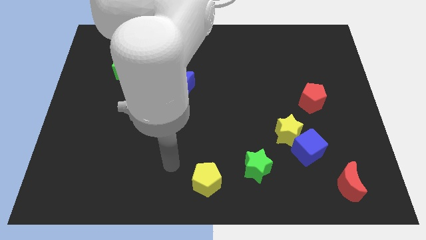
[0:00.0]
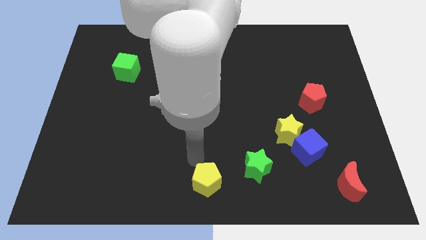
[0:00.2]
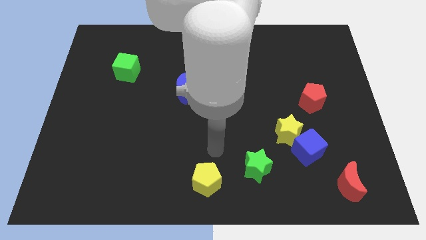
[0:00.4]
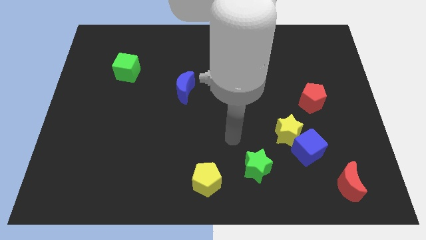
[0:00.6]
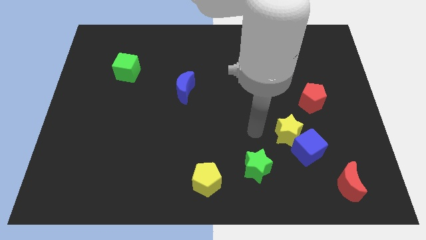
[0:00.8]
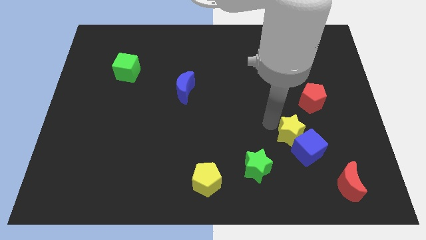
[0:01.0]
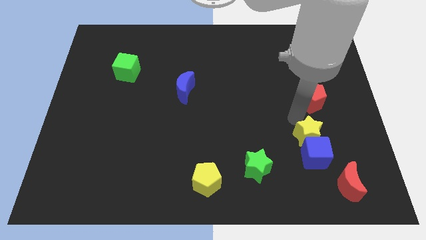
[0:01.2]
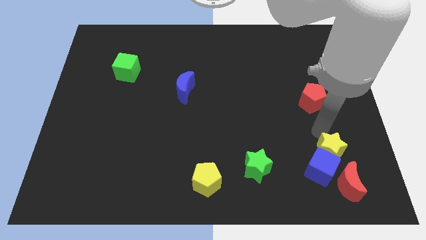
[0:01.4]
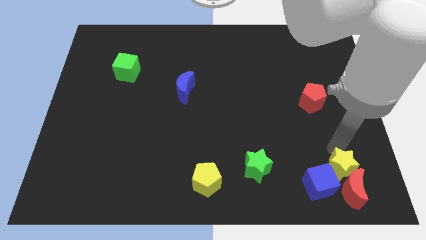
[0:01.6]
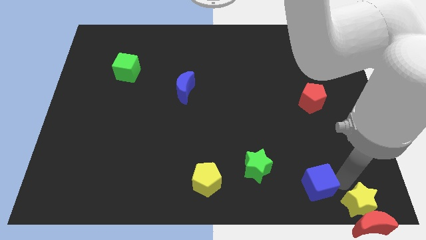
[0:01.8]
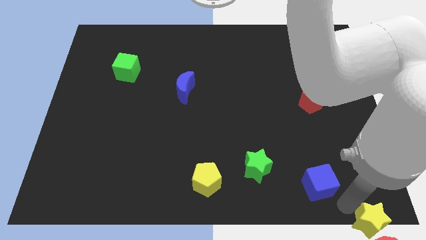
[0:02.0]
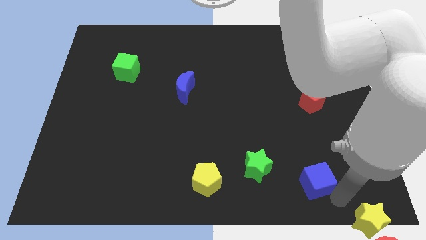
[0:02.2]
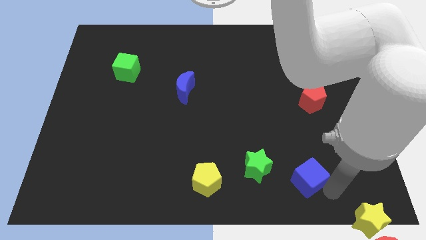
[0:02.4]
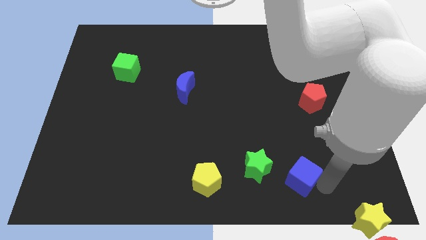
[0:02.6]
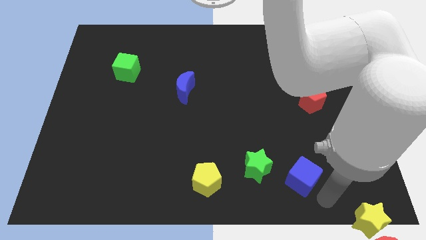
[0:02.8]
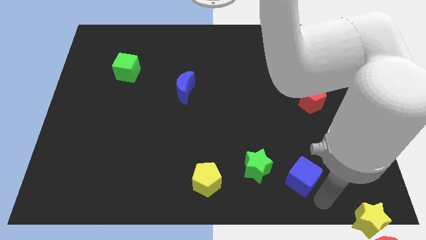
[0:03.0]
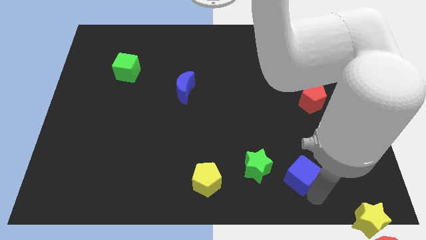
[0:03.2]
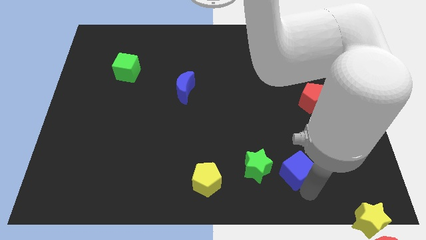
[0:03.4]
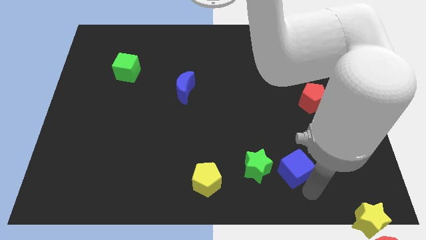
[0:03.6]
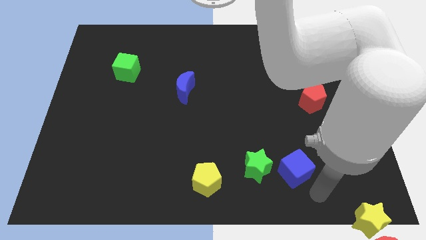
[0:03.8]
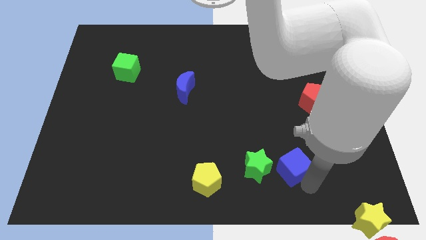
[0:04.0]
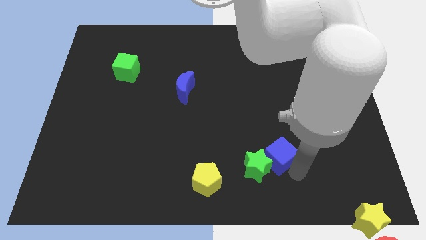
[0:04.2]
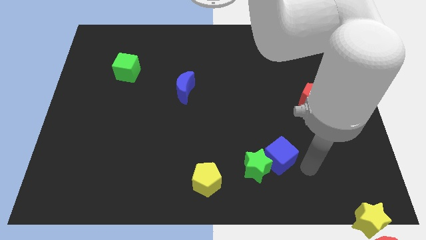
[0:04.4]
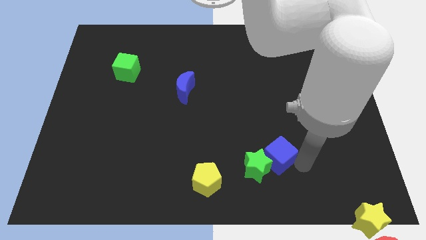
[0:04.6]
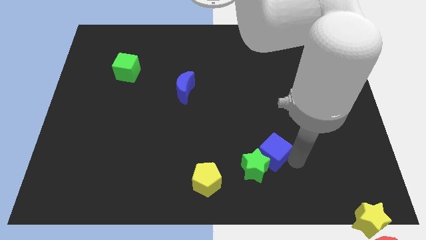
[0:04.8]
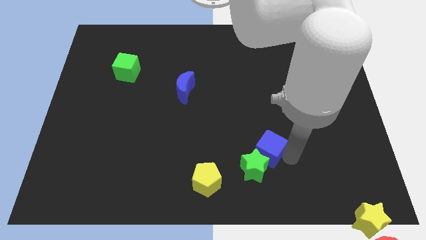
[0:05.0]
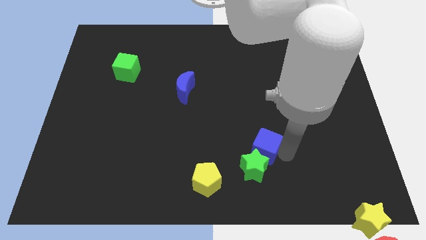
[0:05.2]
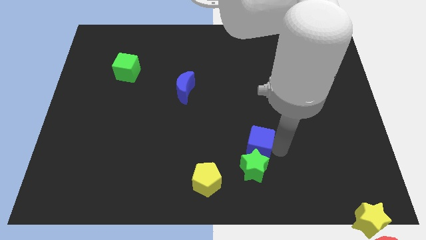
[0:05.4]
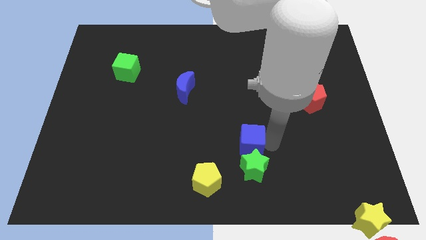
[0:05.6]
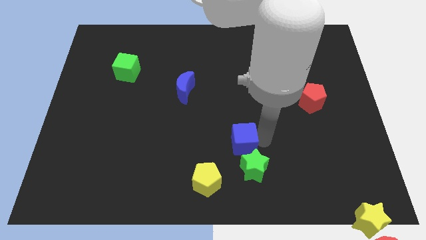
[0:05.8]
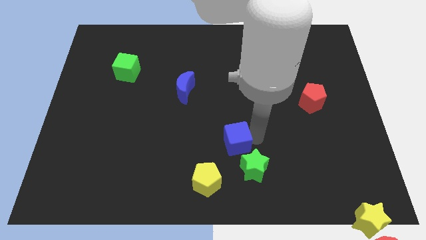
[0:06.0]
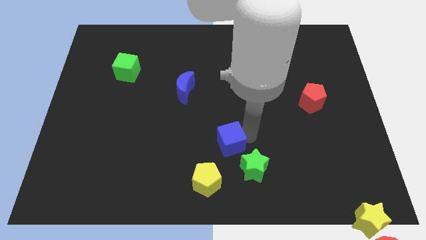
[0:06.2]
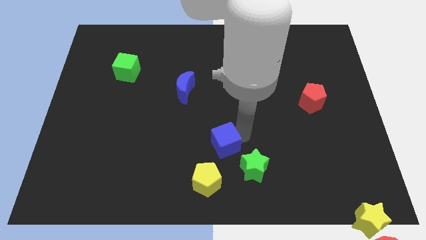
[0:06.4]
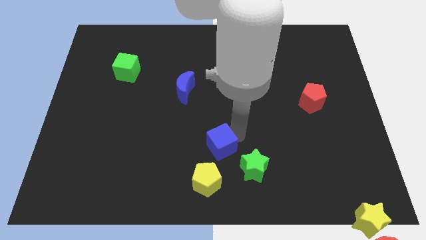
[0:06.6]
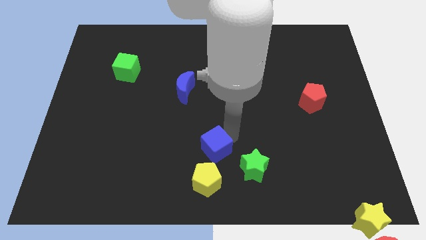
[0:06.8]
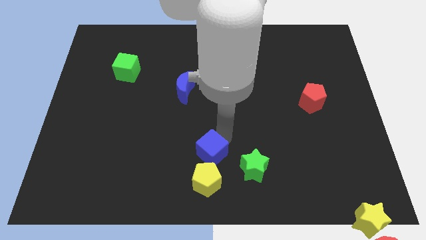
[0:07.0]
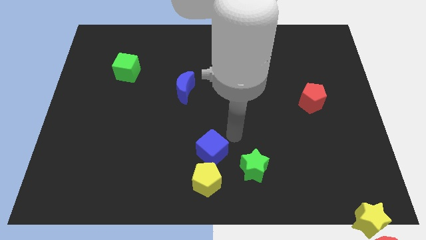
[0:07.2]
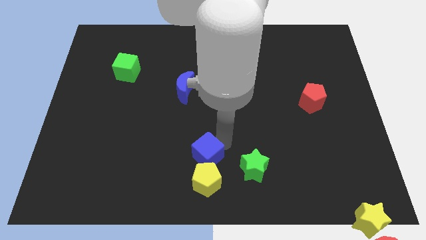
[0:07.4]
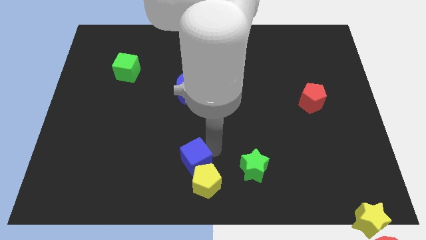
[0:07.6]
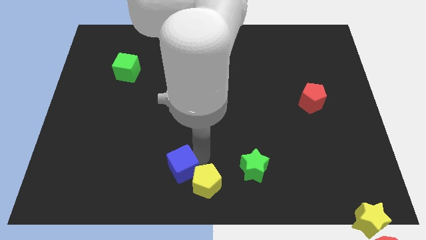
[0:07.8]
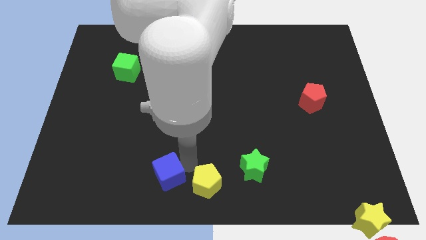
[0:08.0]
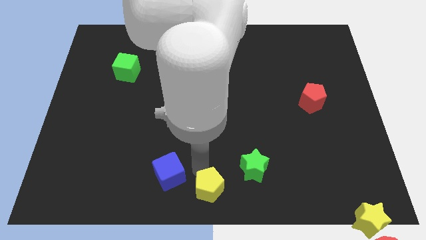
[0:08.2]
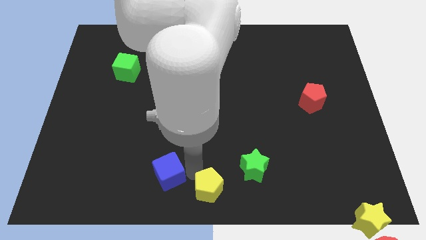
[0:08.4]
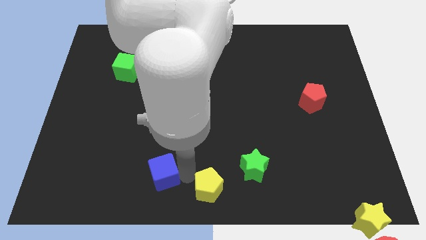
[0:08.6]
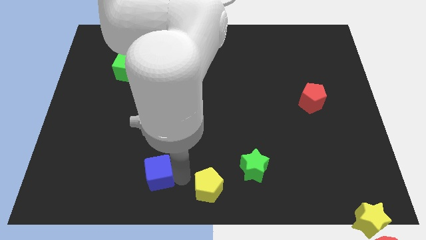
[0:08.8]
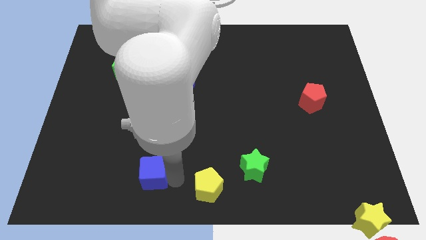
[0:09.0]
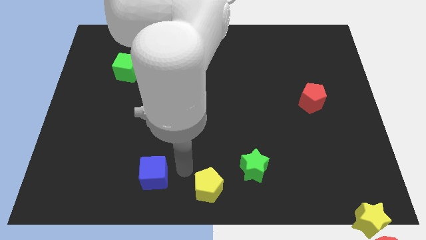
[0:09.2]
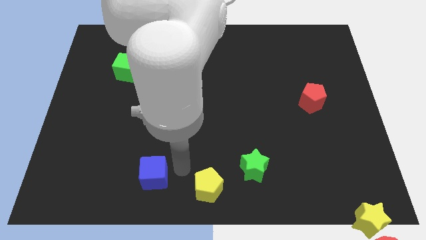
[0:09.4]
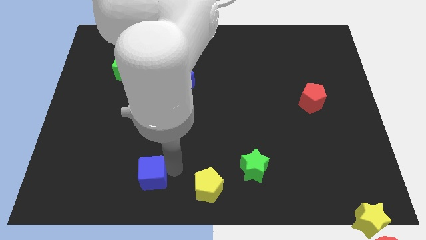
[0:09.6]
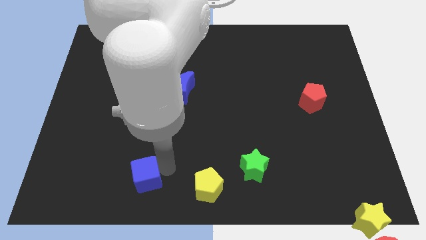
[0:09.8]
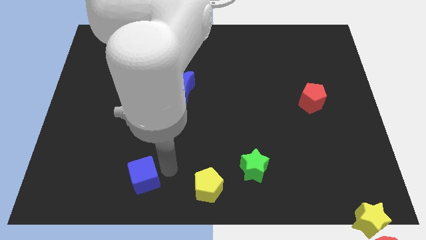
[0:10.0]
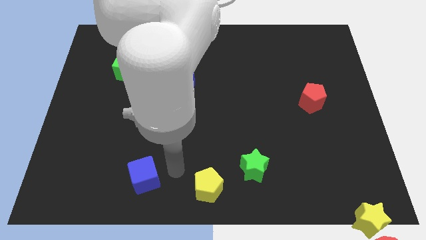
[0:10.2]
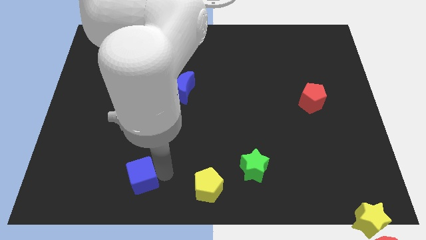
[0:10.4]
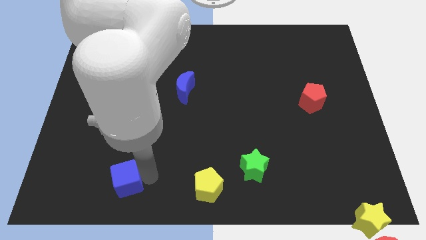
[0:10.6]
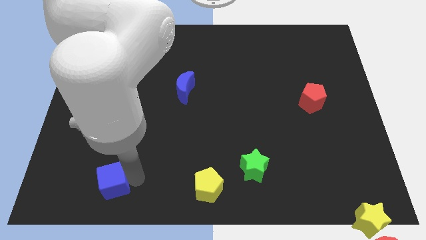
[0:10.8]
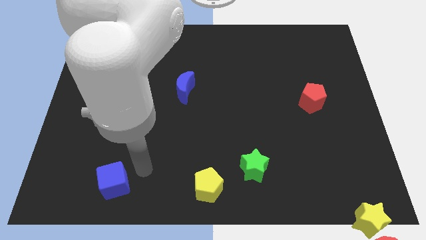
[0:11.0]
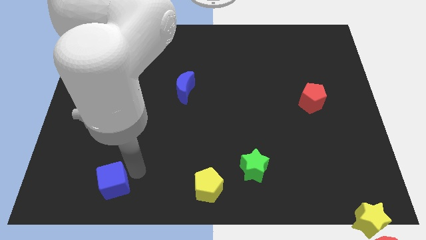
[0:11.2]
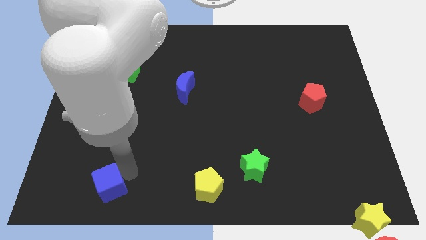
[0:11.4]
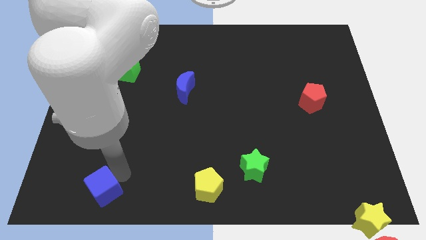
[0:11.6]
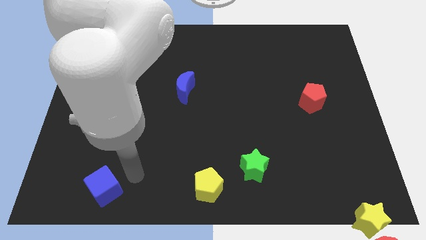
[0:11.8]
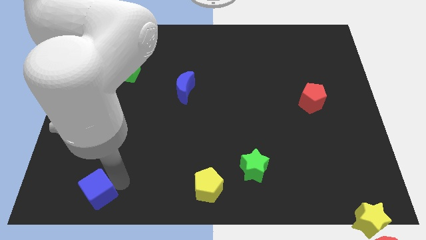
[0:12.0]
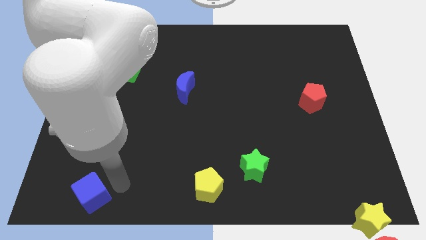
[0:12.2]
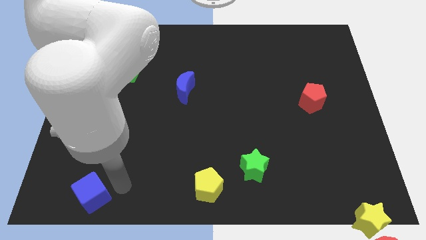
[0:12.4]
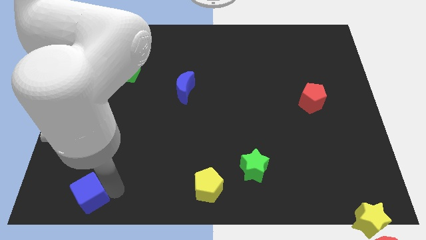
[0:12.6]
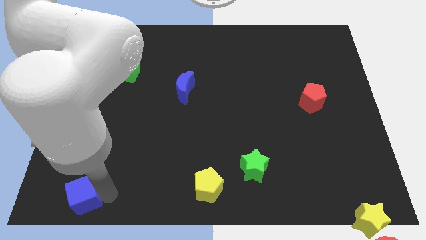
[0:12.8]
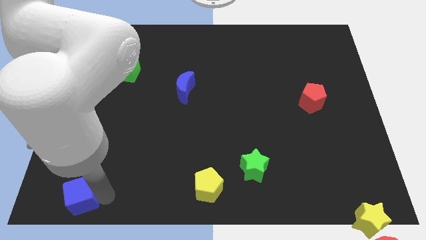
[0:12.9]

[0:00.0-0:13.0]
move the blue cube to the bottom left of the board

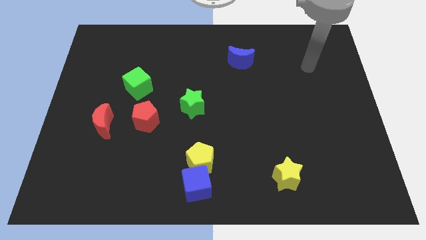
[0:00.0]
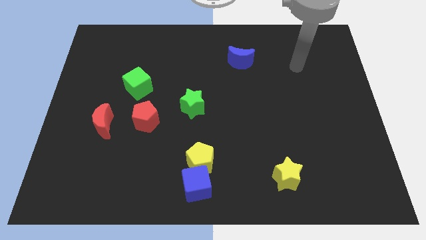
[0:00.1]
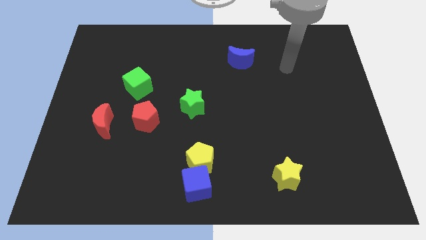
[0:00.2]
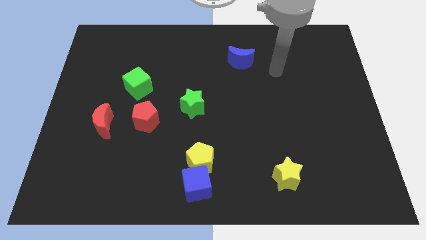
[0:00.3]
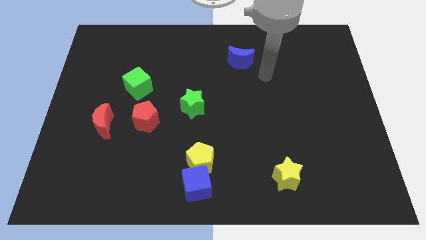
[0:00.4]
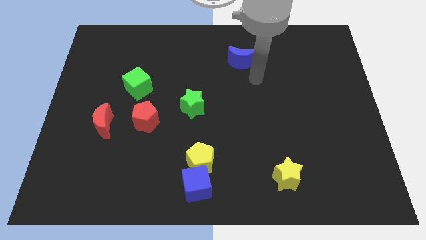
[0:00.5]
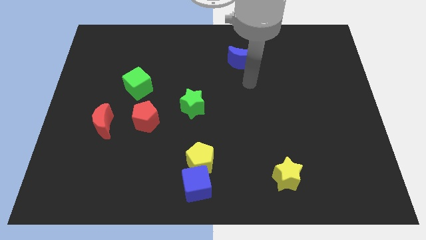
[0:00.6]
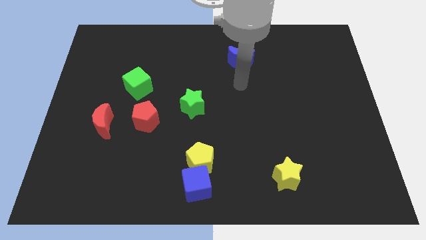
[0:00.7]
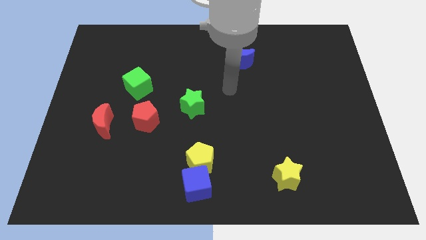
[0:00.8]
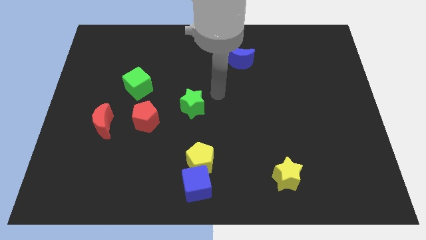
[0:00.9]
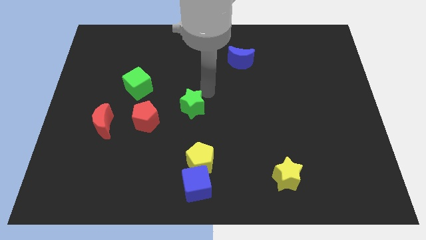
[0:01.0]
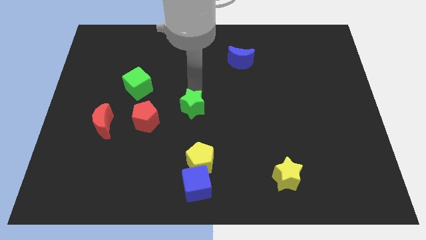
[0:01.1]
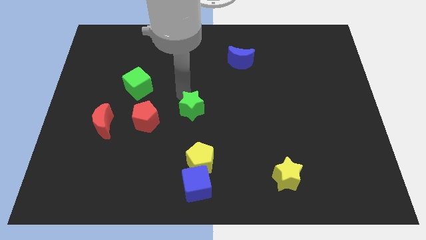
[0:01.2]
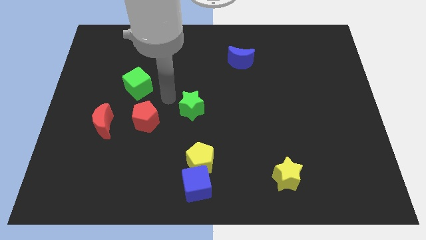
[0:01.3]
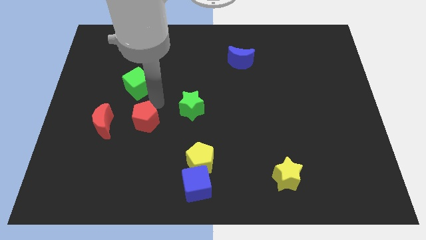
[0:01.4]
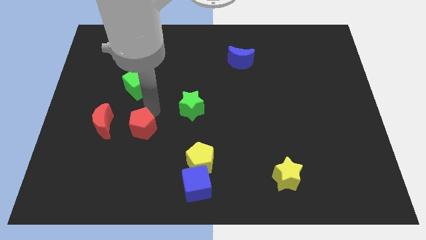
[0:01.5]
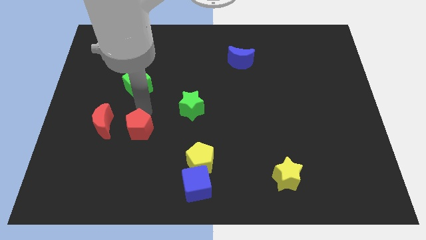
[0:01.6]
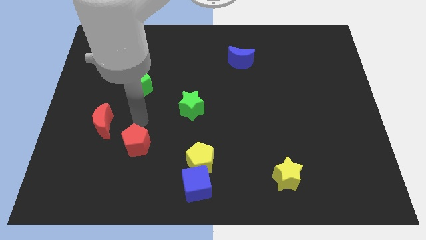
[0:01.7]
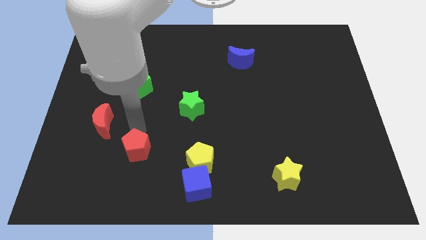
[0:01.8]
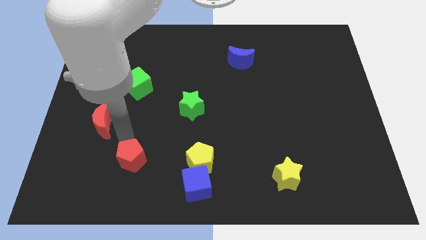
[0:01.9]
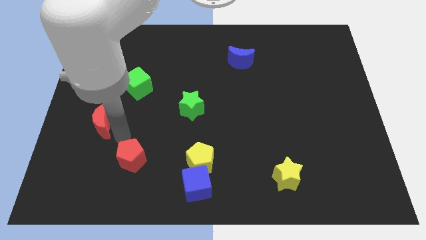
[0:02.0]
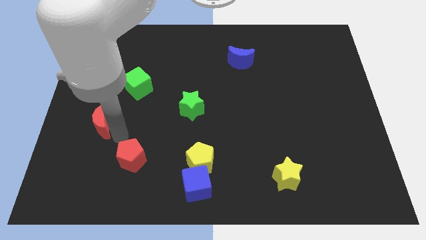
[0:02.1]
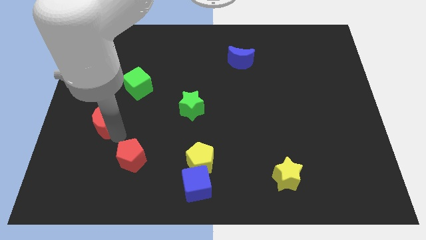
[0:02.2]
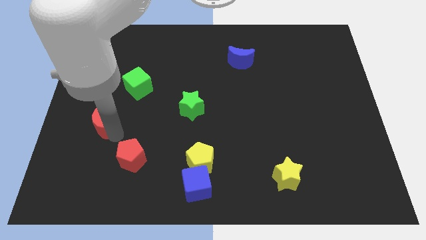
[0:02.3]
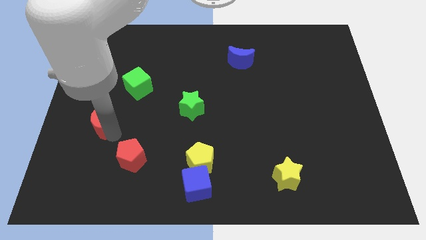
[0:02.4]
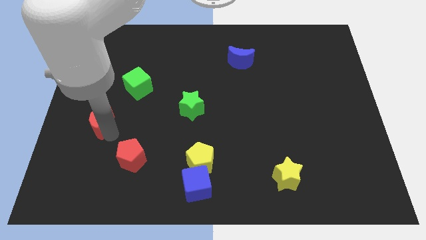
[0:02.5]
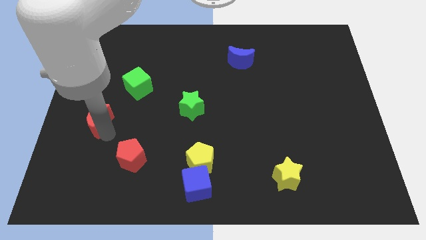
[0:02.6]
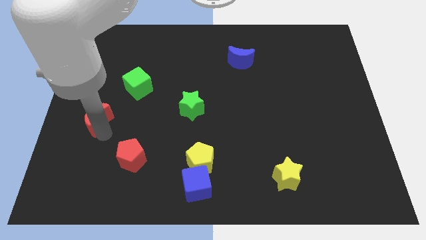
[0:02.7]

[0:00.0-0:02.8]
slide the red moon to the left side
